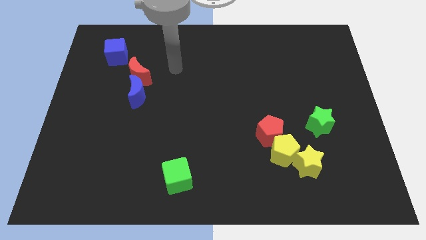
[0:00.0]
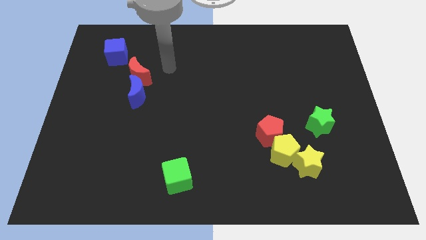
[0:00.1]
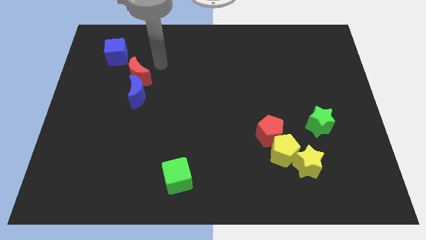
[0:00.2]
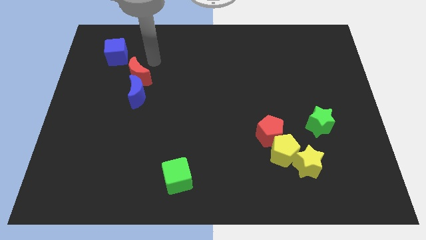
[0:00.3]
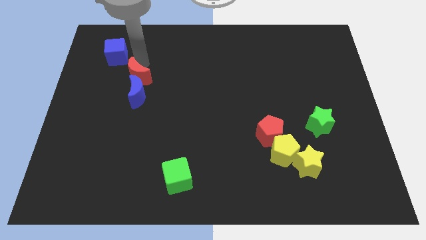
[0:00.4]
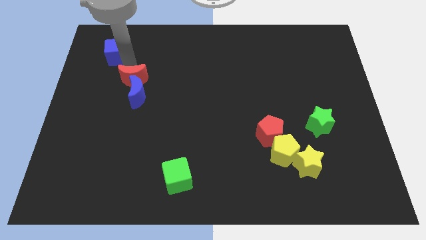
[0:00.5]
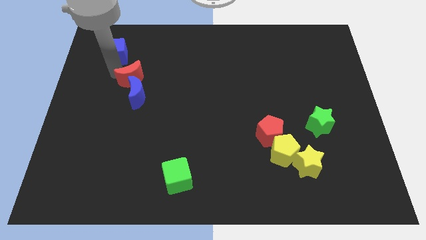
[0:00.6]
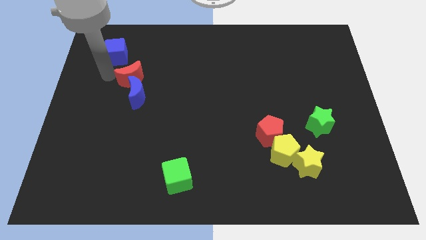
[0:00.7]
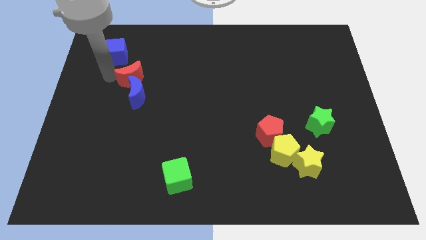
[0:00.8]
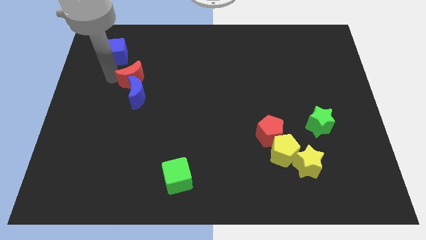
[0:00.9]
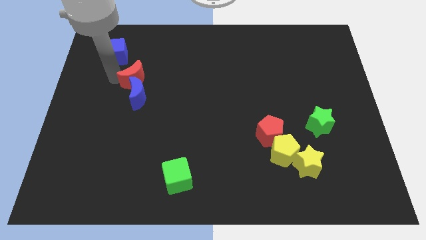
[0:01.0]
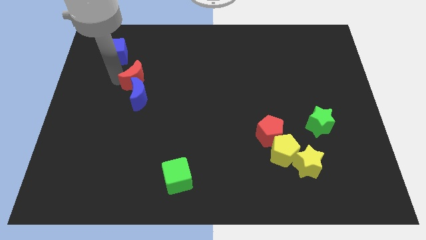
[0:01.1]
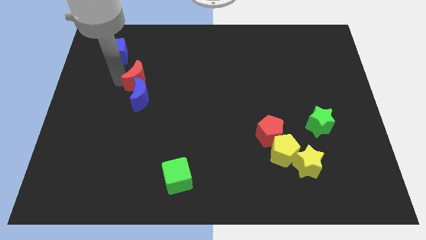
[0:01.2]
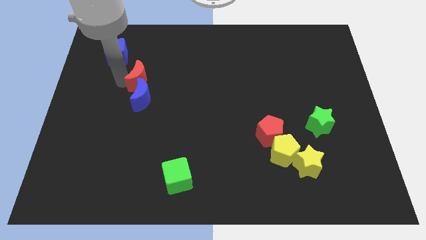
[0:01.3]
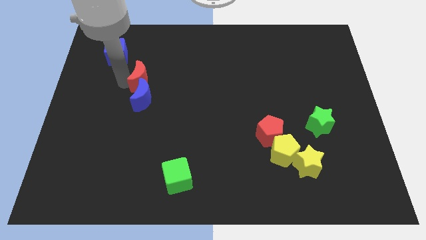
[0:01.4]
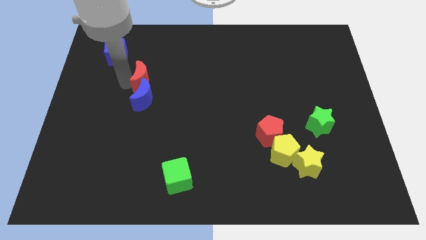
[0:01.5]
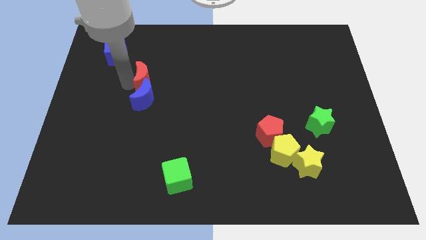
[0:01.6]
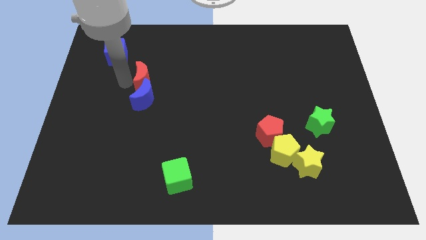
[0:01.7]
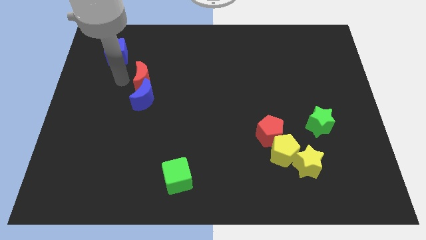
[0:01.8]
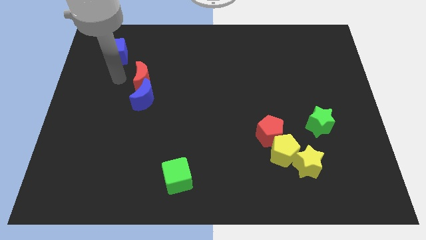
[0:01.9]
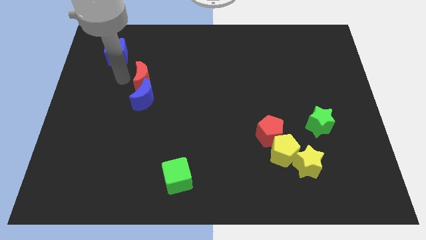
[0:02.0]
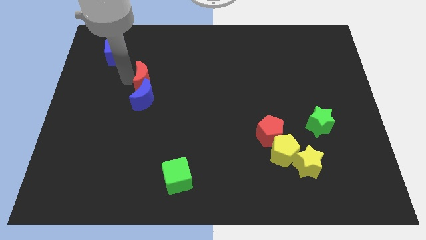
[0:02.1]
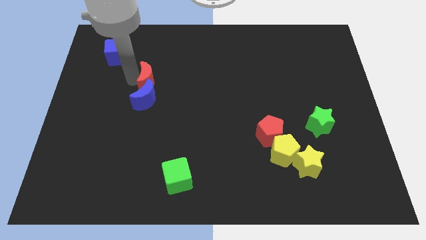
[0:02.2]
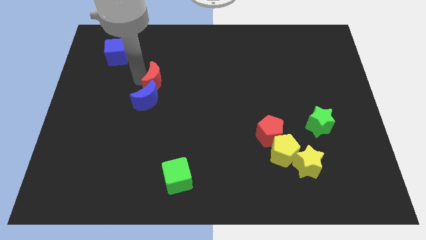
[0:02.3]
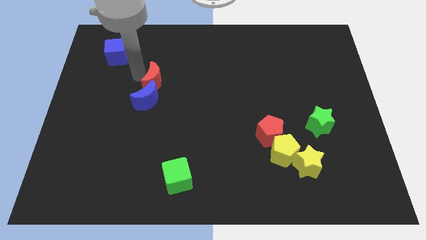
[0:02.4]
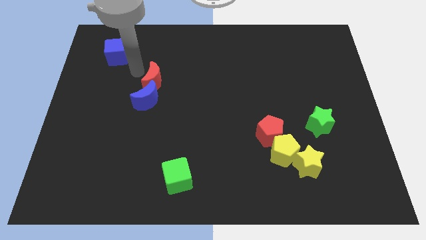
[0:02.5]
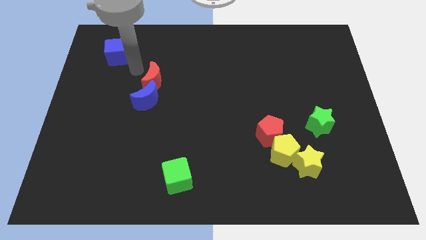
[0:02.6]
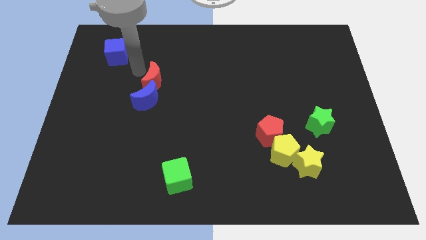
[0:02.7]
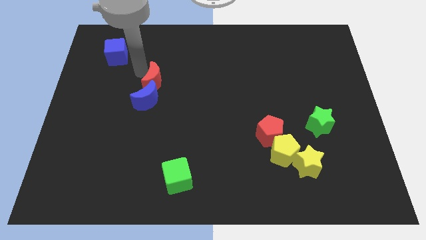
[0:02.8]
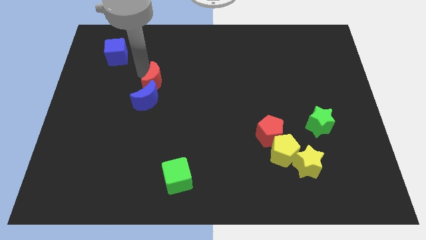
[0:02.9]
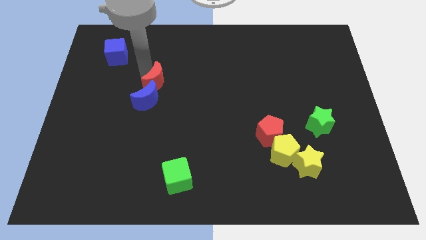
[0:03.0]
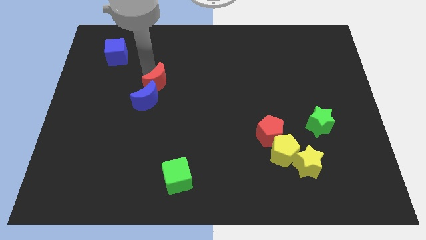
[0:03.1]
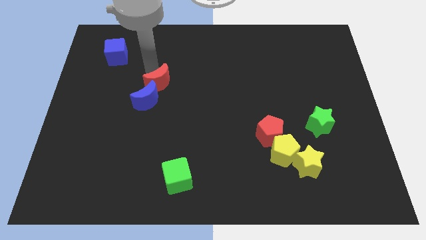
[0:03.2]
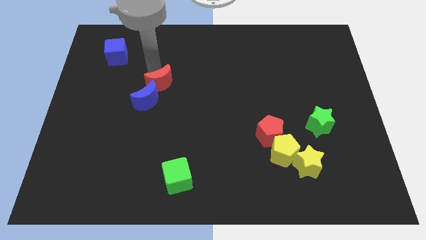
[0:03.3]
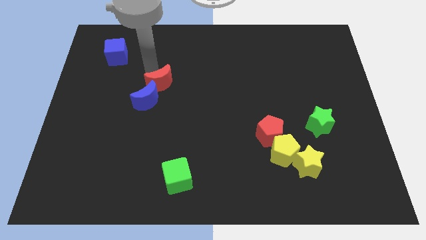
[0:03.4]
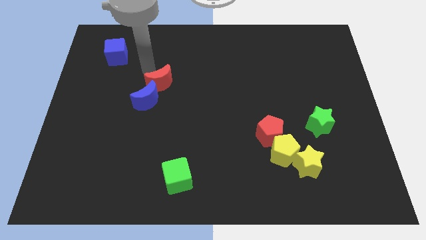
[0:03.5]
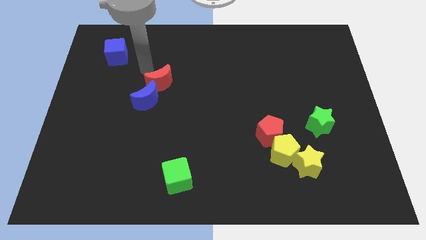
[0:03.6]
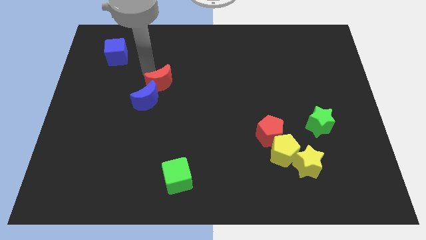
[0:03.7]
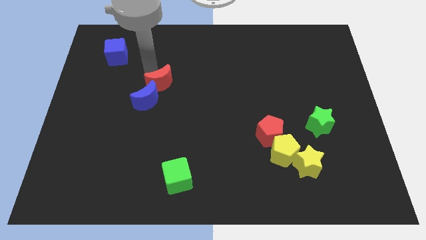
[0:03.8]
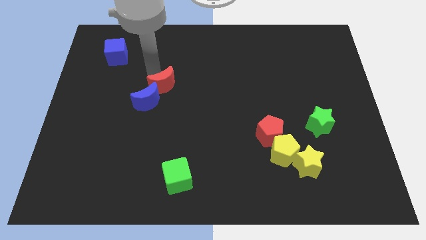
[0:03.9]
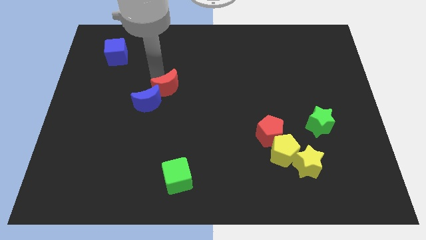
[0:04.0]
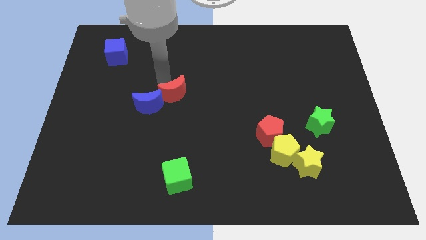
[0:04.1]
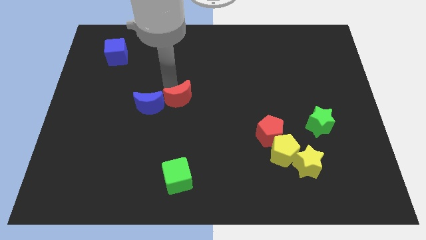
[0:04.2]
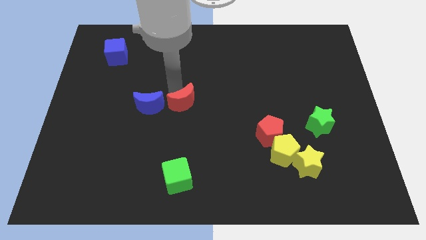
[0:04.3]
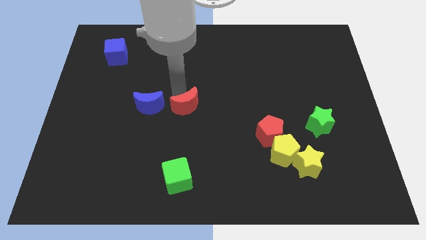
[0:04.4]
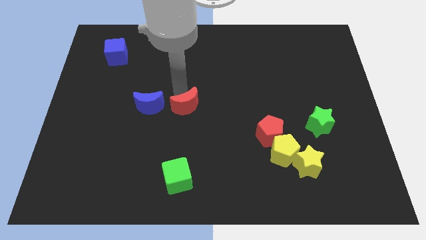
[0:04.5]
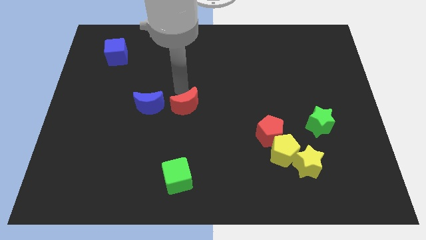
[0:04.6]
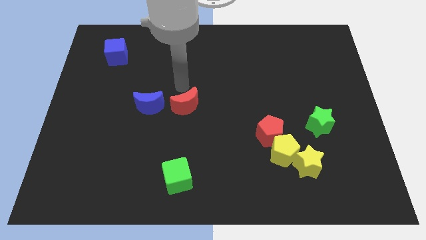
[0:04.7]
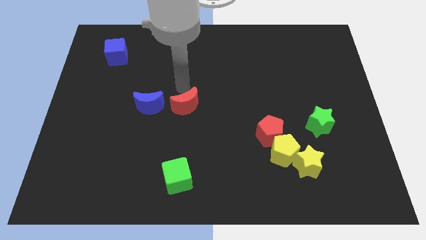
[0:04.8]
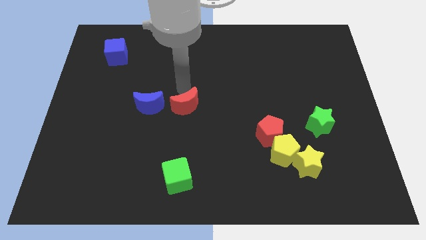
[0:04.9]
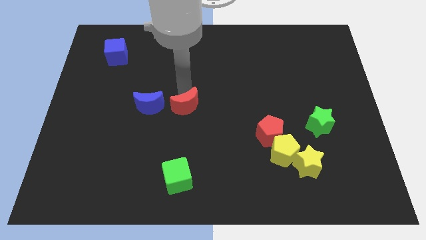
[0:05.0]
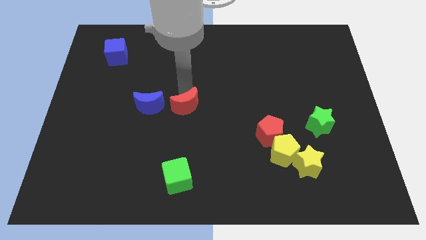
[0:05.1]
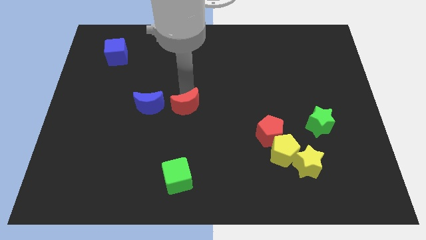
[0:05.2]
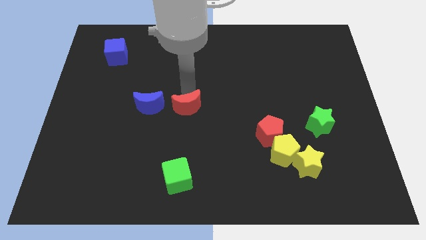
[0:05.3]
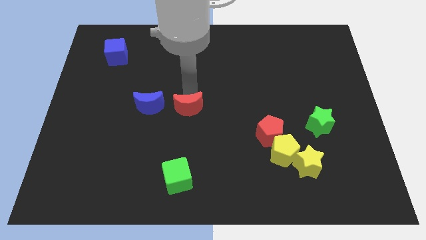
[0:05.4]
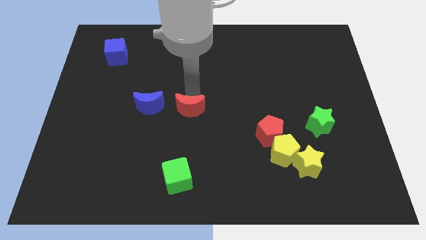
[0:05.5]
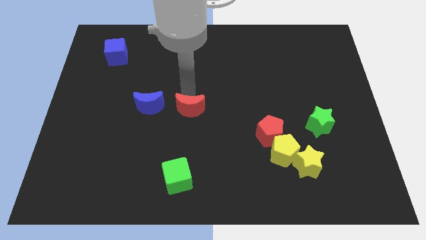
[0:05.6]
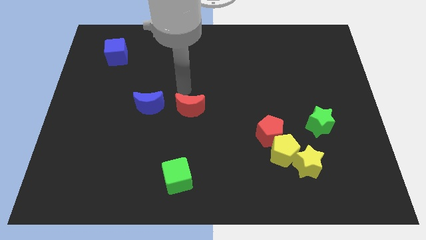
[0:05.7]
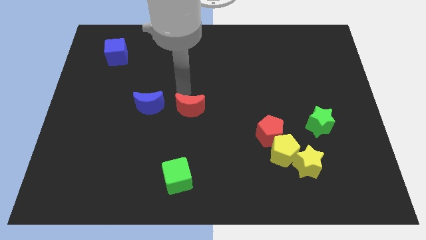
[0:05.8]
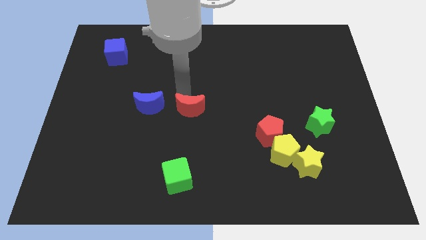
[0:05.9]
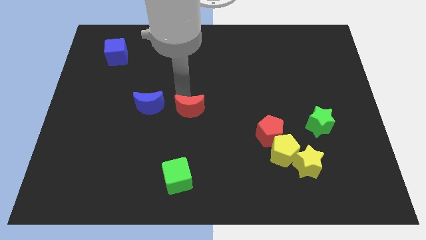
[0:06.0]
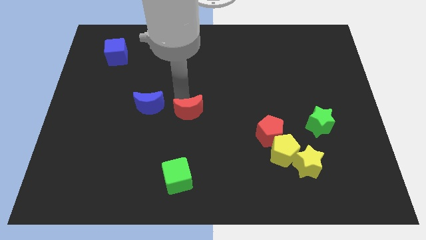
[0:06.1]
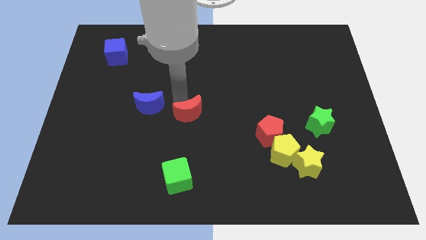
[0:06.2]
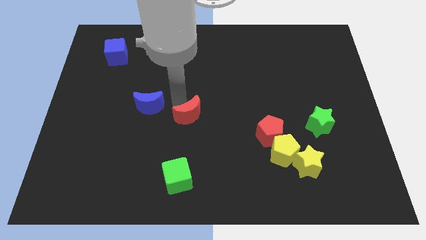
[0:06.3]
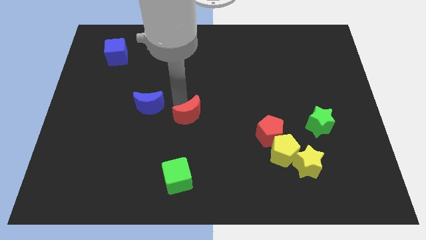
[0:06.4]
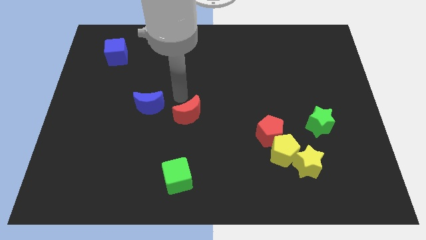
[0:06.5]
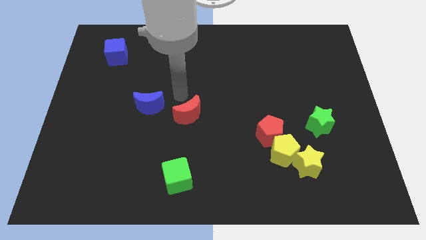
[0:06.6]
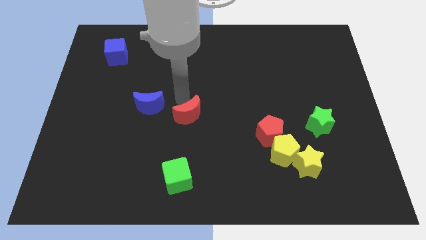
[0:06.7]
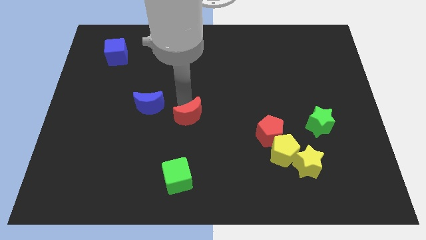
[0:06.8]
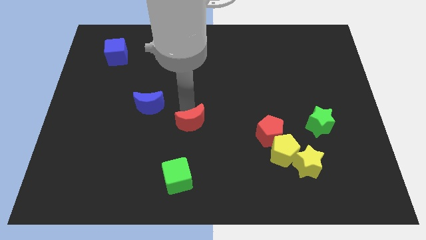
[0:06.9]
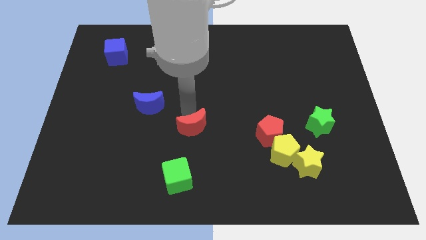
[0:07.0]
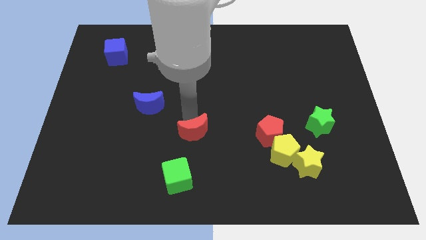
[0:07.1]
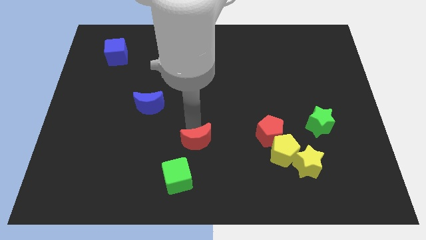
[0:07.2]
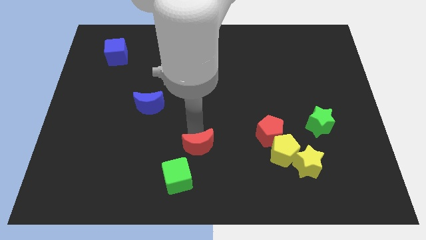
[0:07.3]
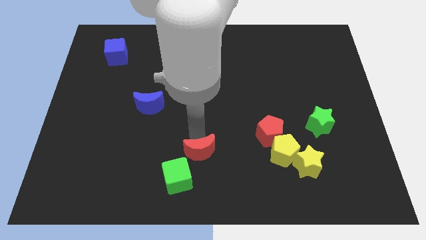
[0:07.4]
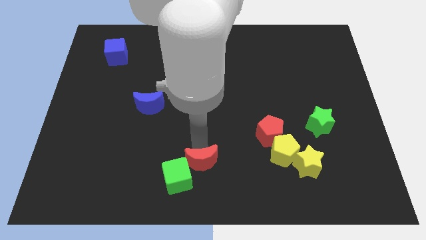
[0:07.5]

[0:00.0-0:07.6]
move the red moon to the bottom side
